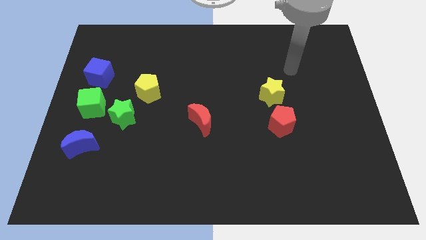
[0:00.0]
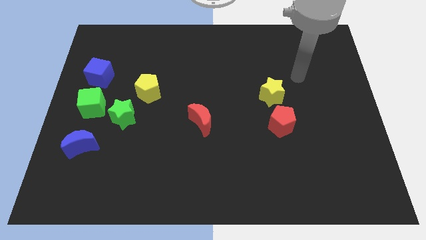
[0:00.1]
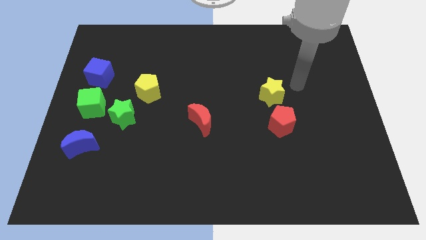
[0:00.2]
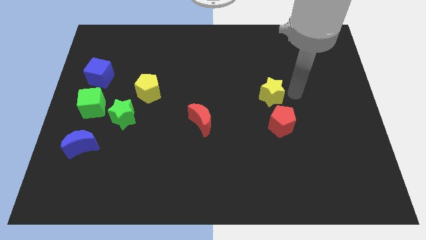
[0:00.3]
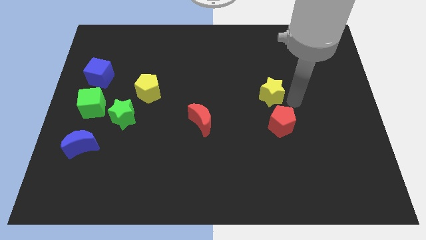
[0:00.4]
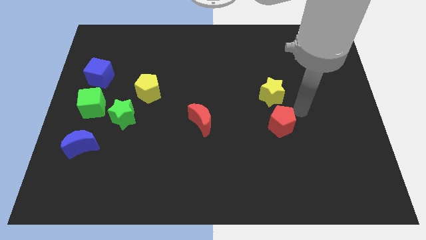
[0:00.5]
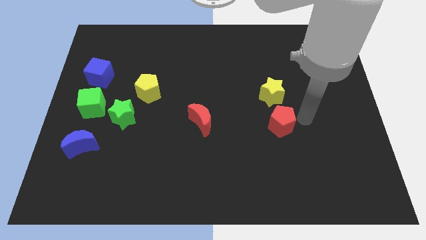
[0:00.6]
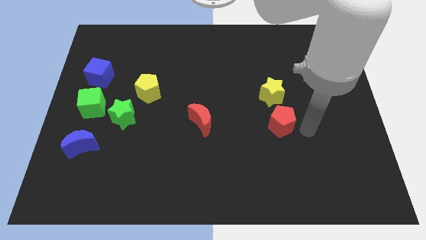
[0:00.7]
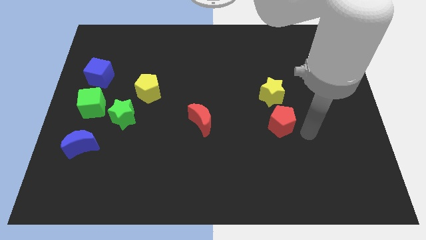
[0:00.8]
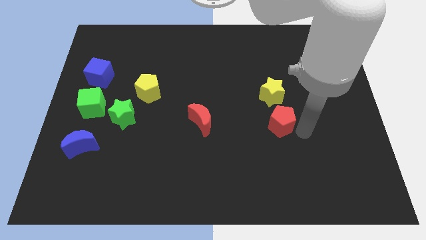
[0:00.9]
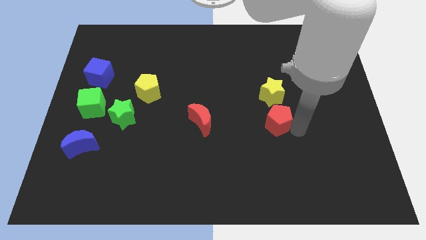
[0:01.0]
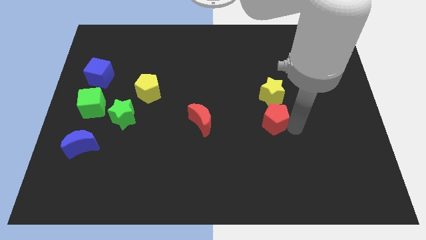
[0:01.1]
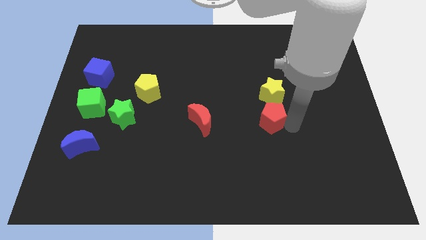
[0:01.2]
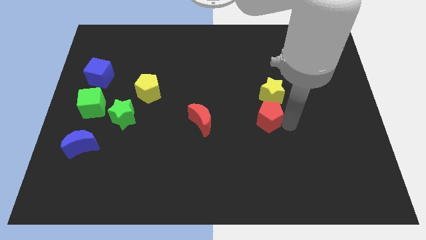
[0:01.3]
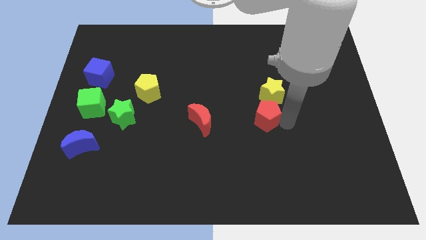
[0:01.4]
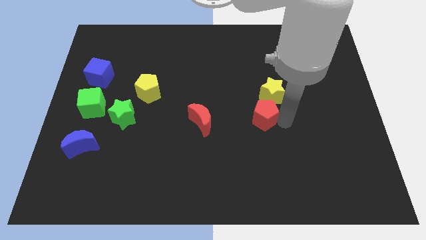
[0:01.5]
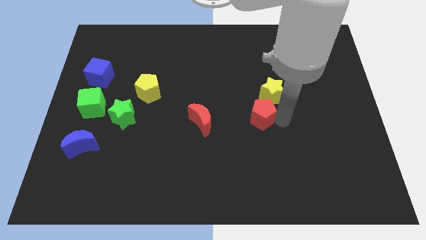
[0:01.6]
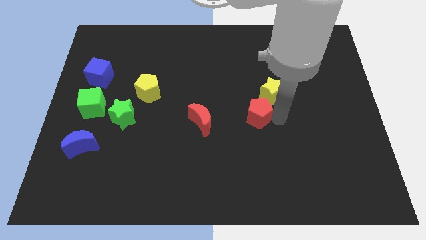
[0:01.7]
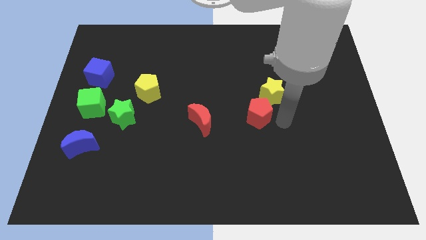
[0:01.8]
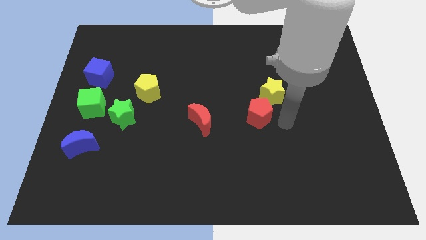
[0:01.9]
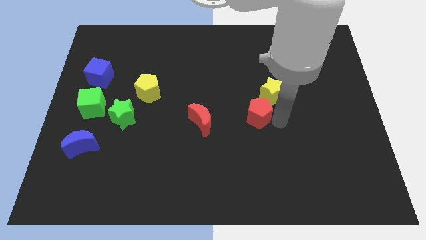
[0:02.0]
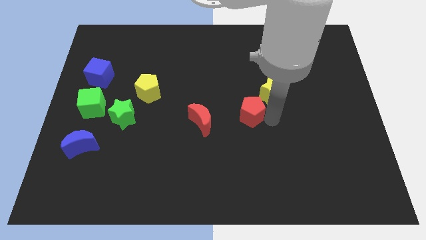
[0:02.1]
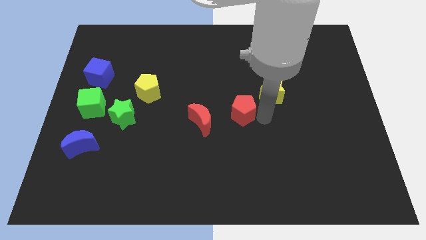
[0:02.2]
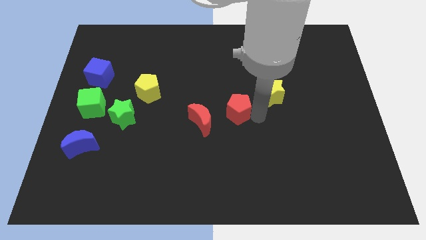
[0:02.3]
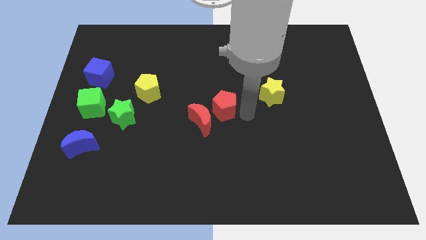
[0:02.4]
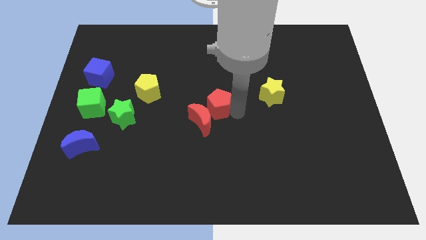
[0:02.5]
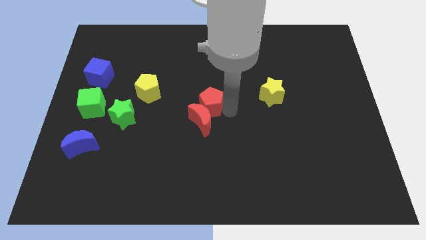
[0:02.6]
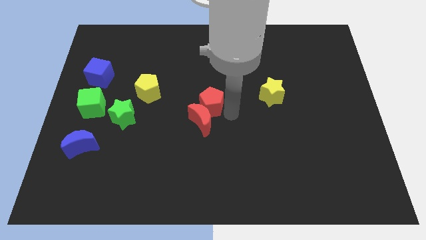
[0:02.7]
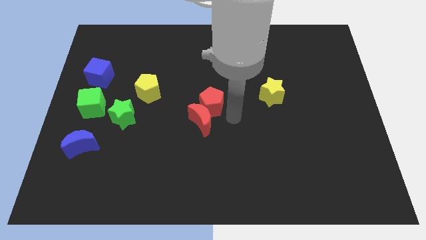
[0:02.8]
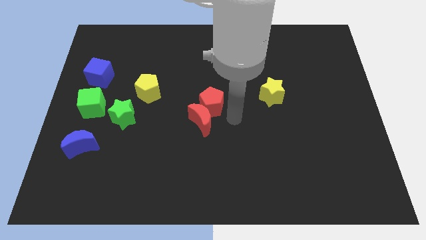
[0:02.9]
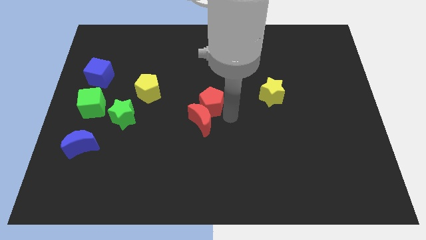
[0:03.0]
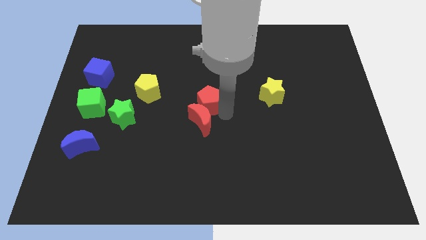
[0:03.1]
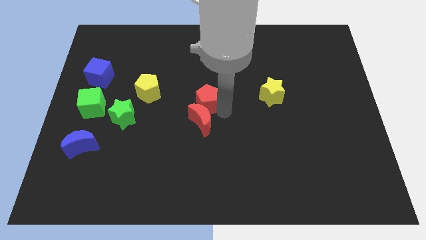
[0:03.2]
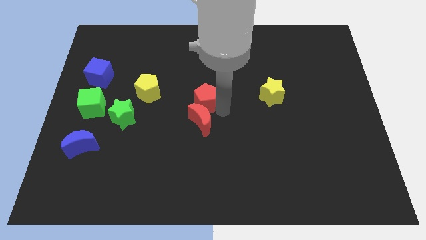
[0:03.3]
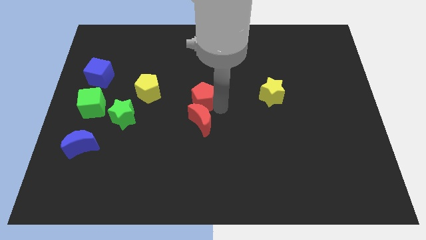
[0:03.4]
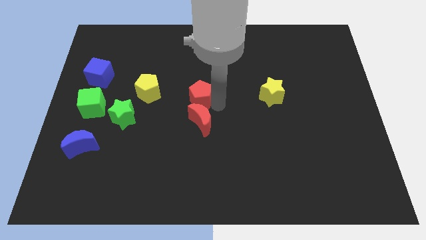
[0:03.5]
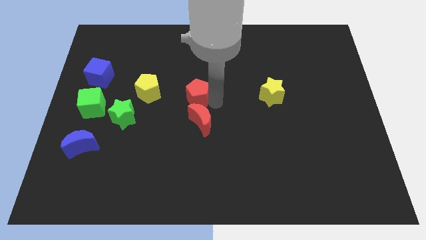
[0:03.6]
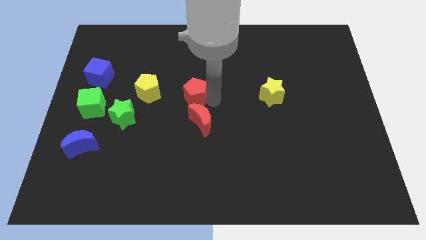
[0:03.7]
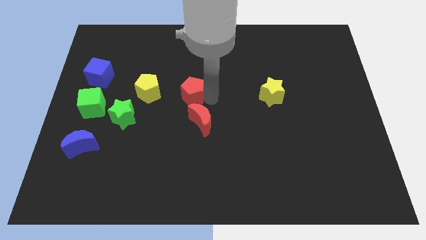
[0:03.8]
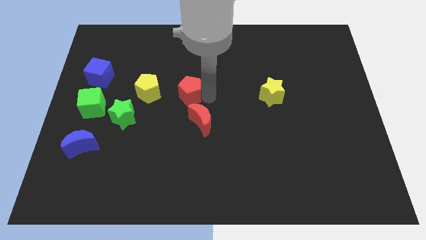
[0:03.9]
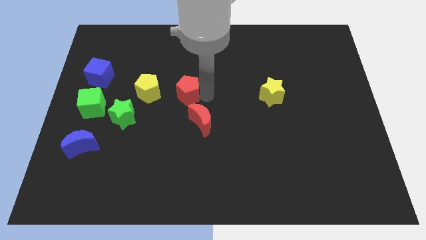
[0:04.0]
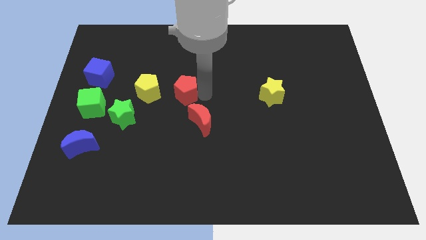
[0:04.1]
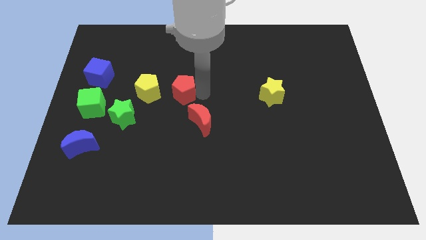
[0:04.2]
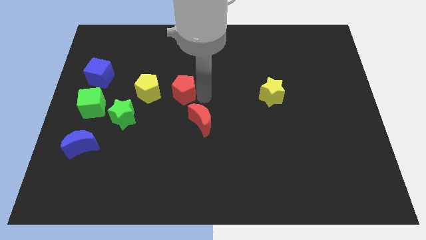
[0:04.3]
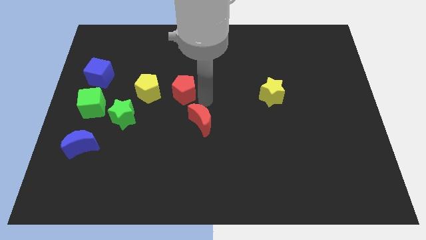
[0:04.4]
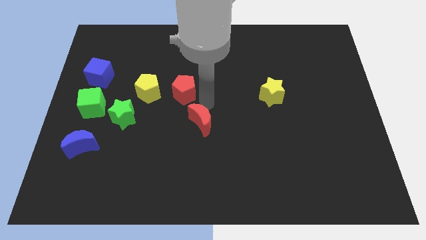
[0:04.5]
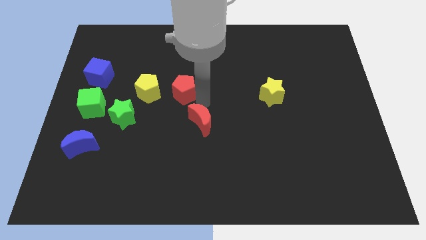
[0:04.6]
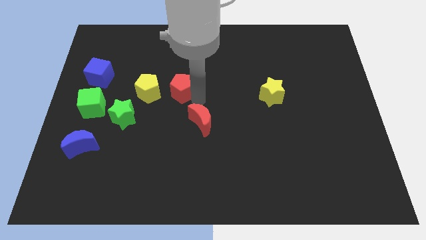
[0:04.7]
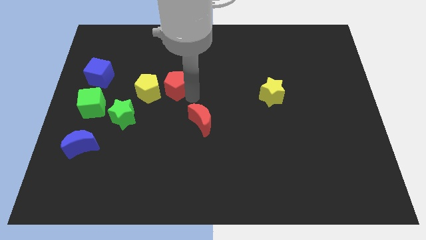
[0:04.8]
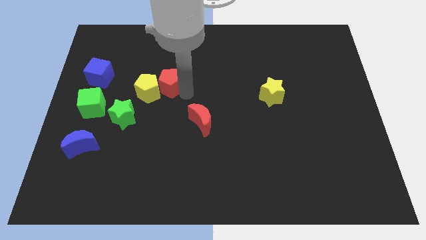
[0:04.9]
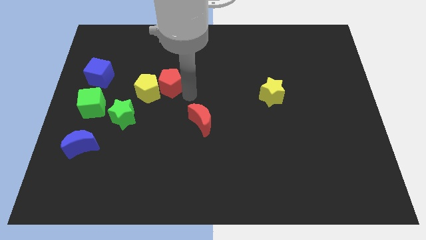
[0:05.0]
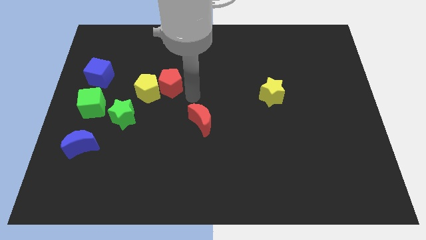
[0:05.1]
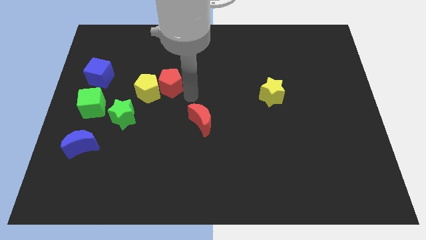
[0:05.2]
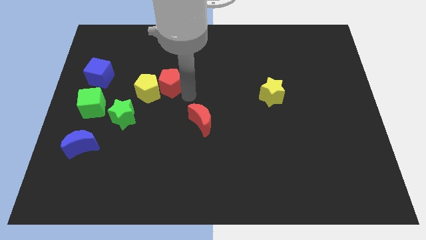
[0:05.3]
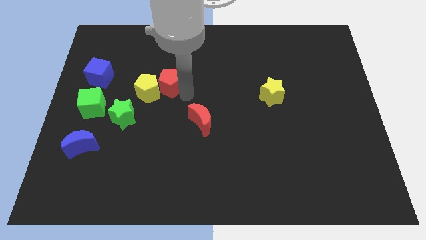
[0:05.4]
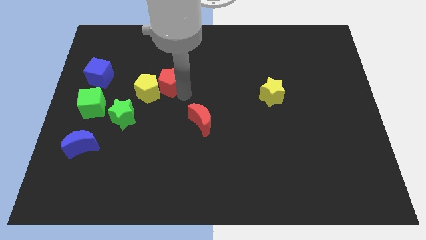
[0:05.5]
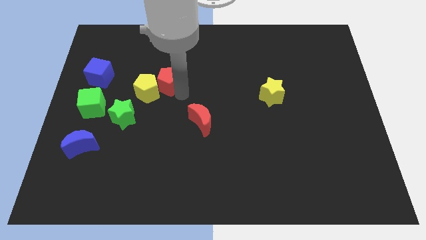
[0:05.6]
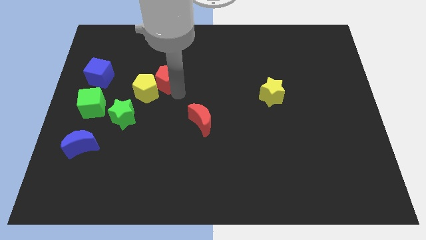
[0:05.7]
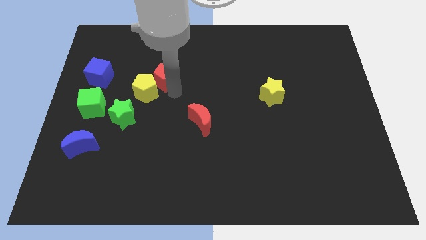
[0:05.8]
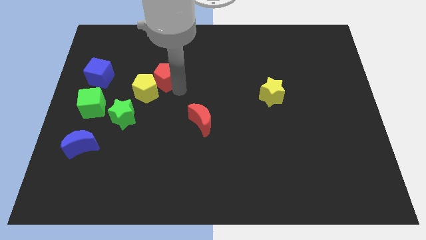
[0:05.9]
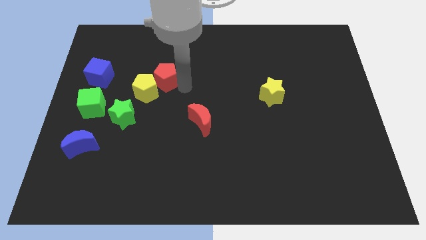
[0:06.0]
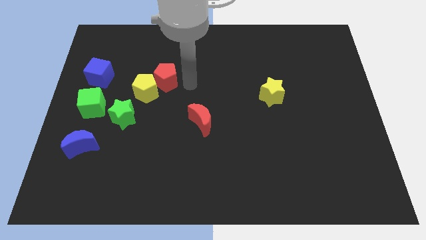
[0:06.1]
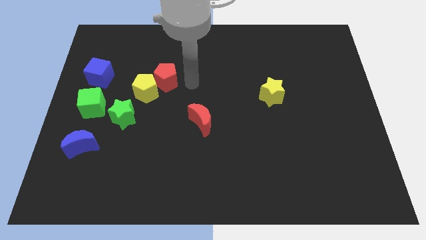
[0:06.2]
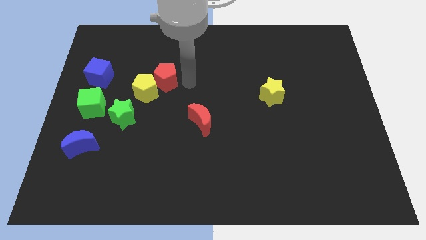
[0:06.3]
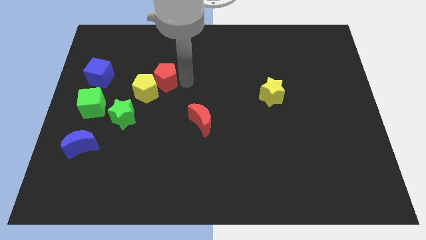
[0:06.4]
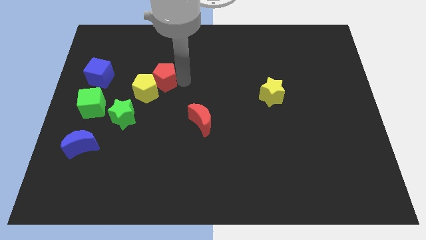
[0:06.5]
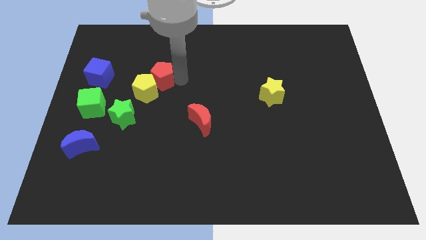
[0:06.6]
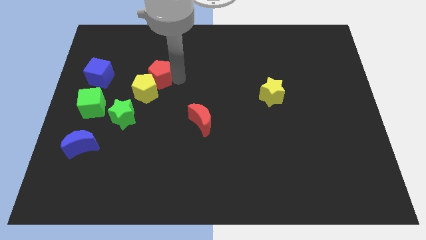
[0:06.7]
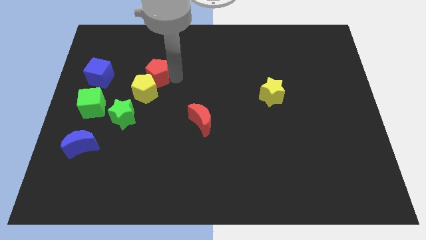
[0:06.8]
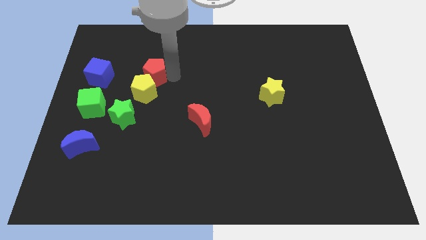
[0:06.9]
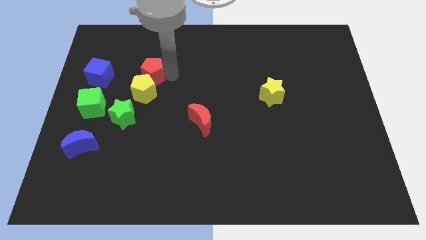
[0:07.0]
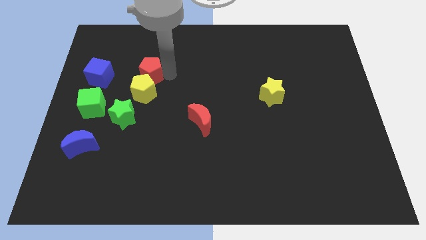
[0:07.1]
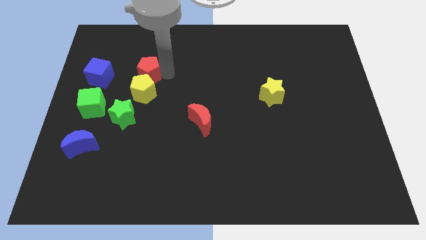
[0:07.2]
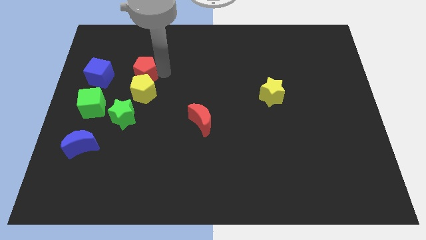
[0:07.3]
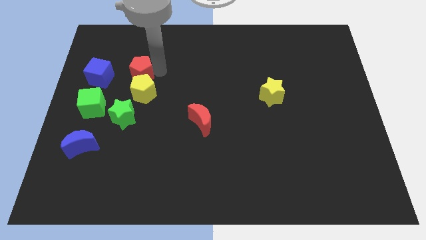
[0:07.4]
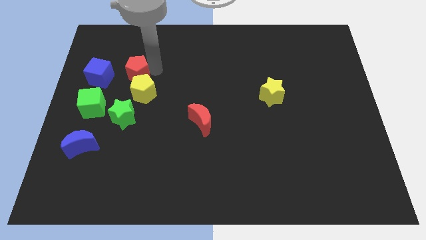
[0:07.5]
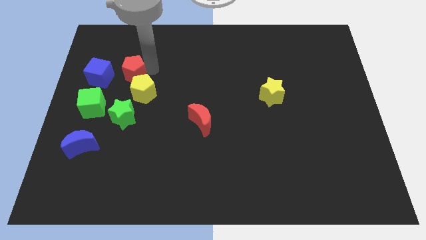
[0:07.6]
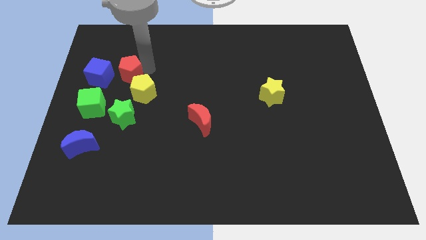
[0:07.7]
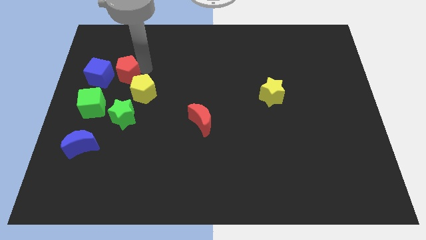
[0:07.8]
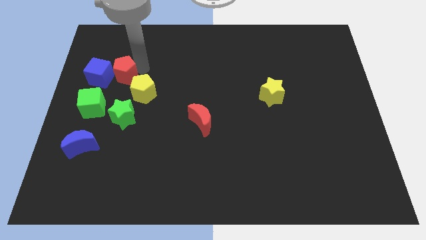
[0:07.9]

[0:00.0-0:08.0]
move the red pentagon close to the blue cube
